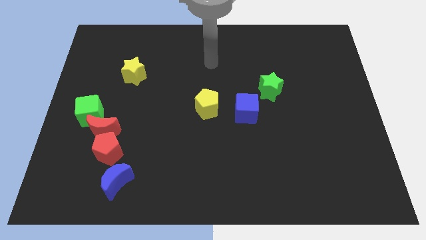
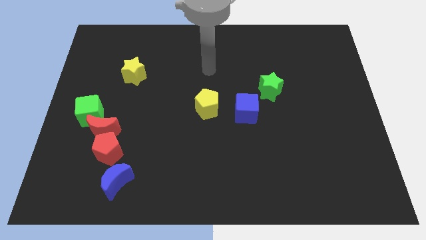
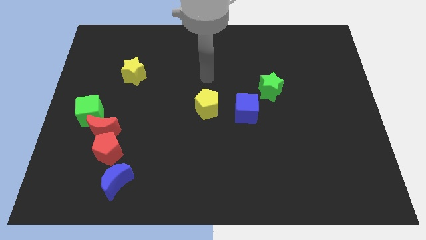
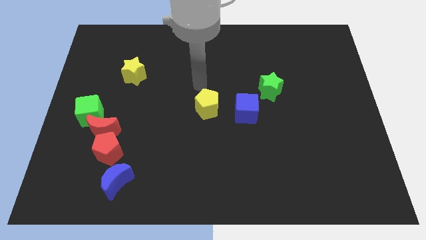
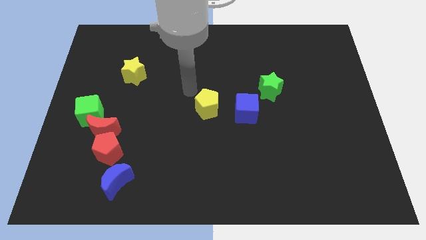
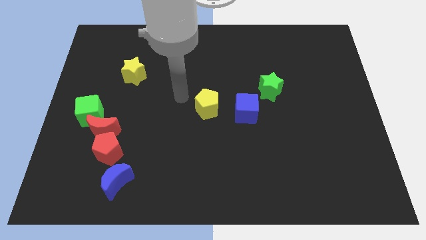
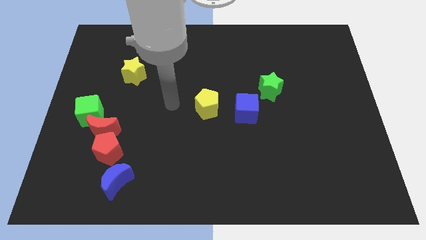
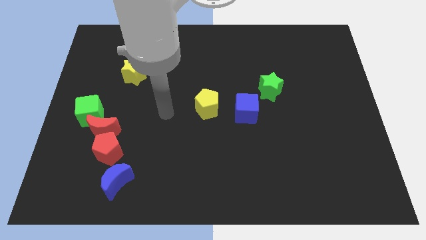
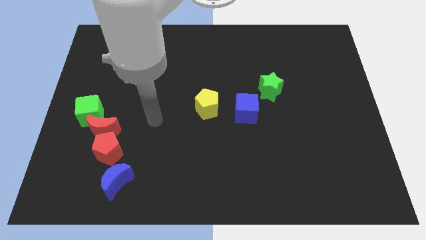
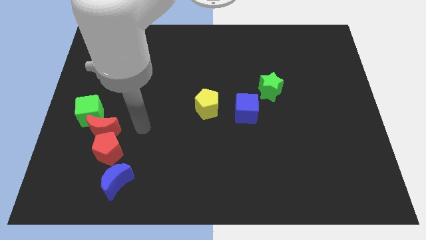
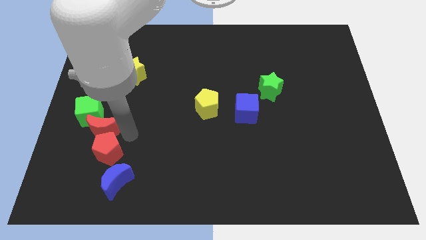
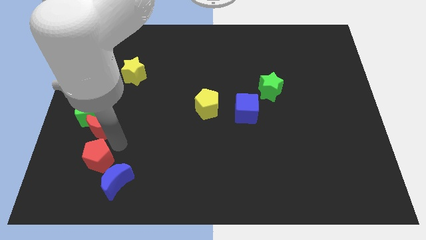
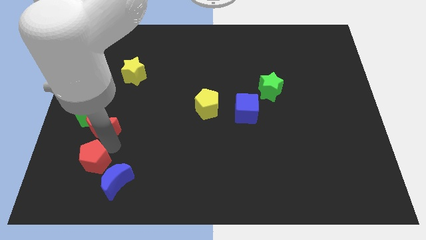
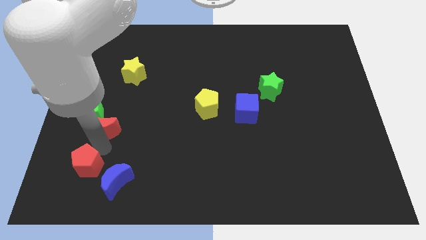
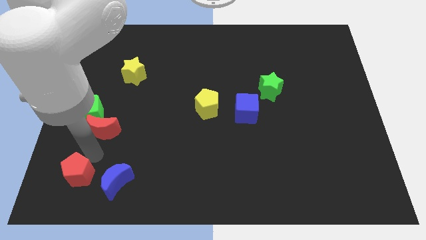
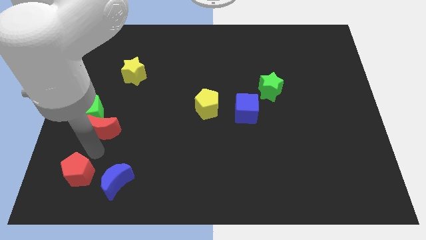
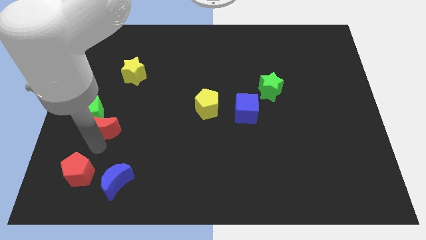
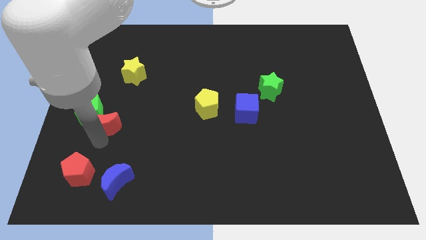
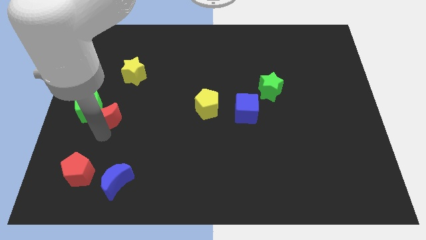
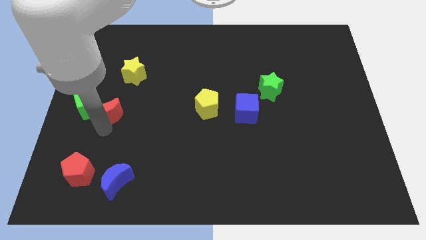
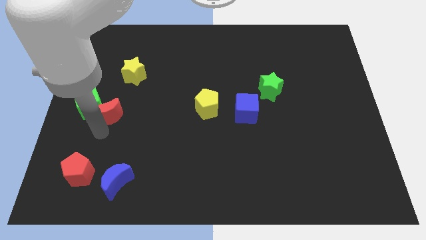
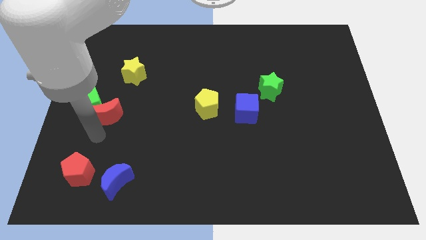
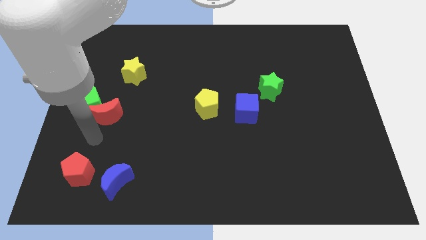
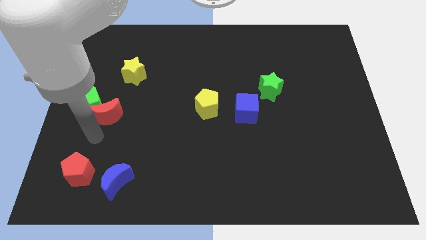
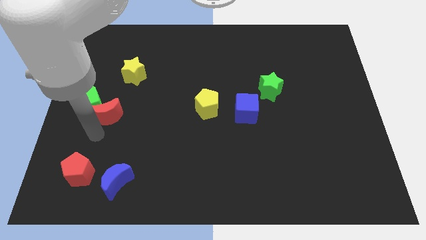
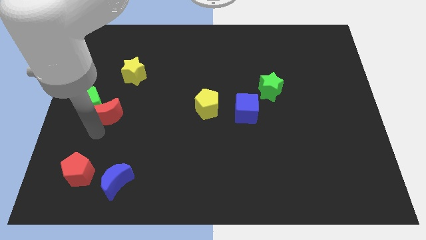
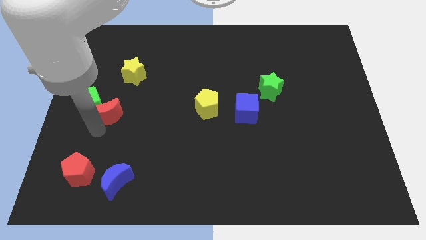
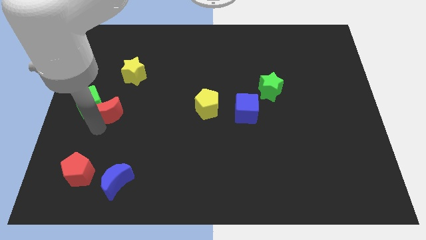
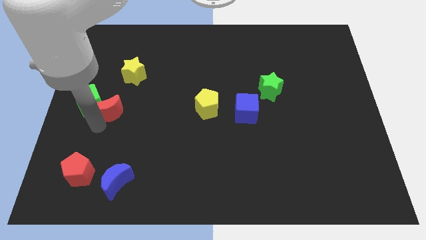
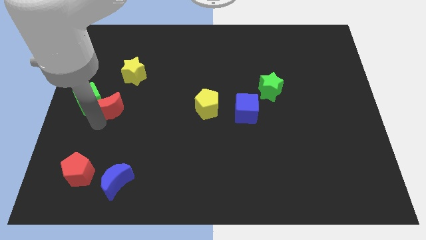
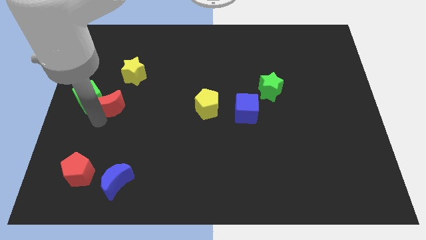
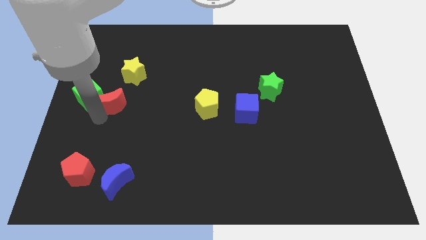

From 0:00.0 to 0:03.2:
slightly push the red moon upwards

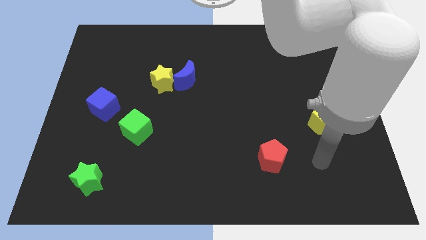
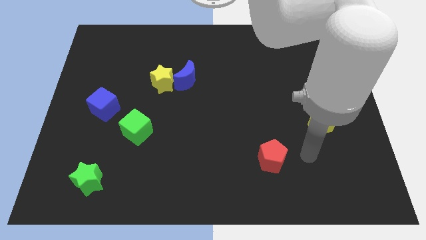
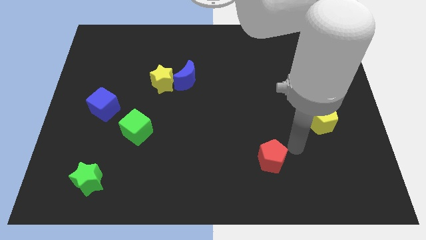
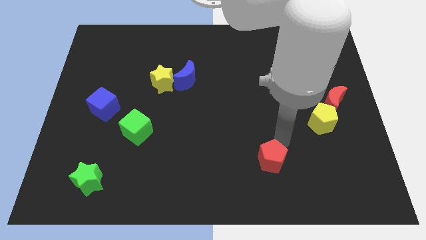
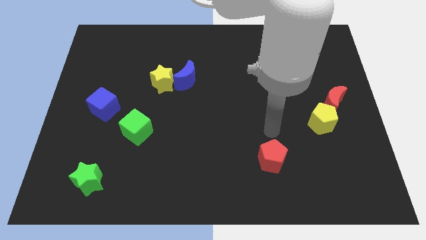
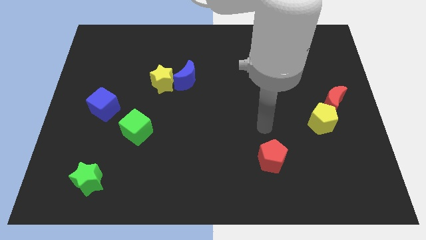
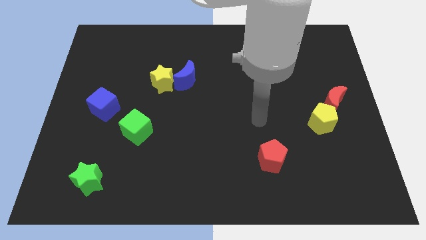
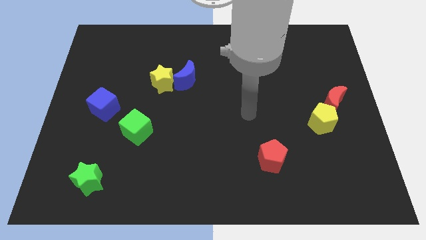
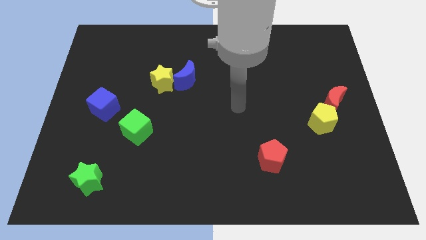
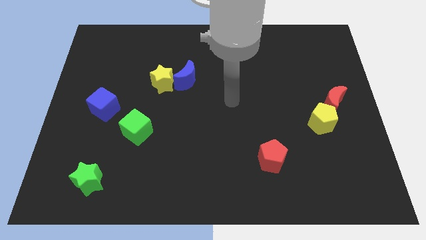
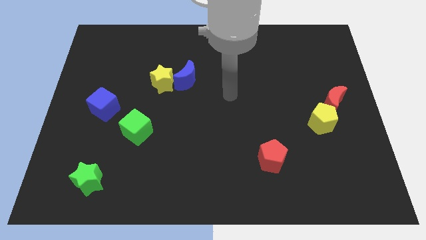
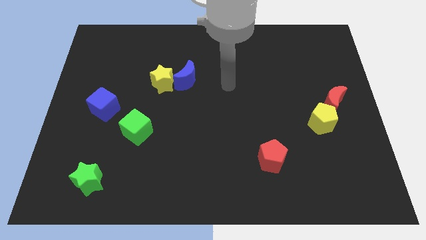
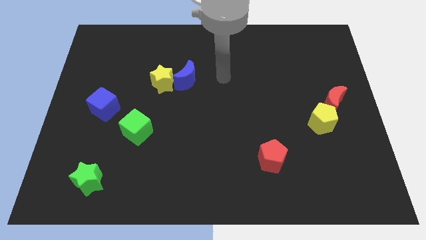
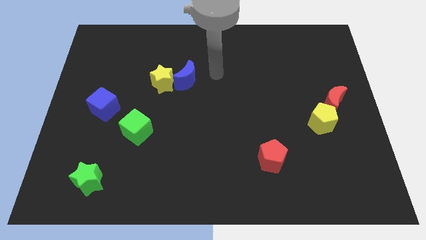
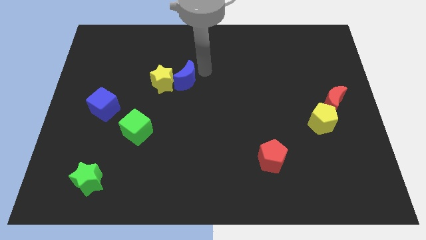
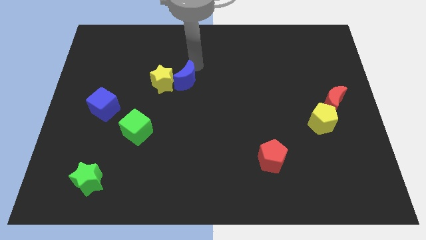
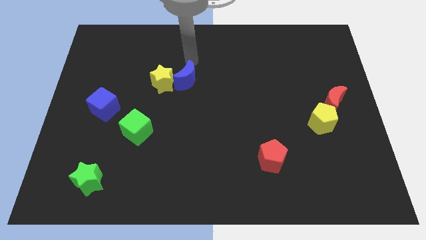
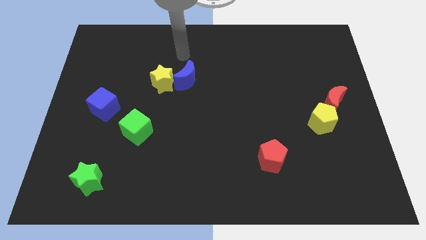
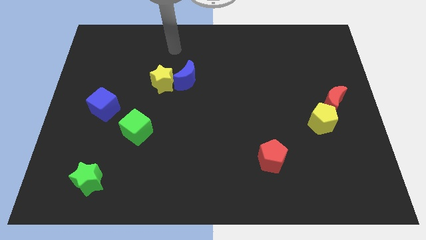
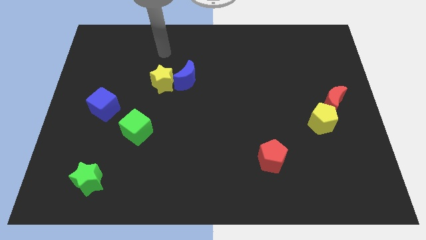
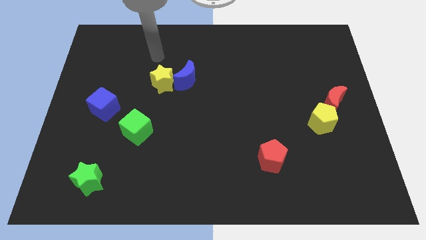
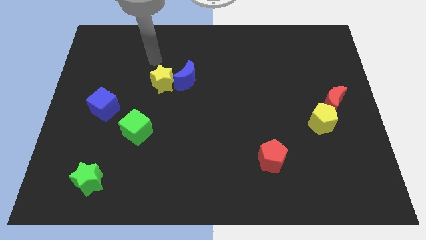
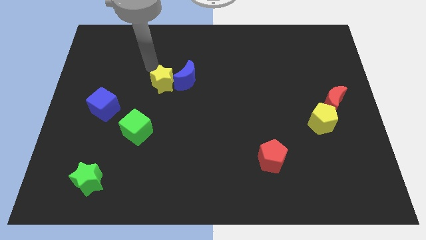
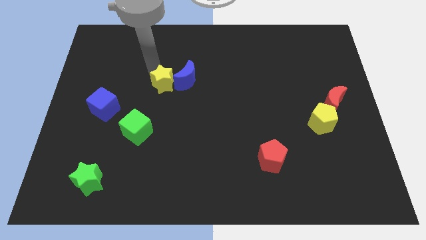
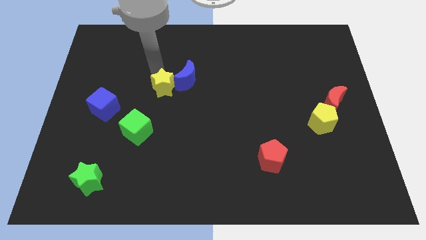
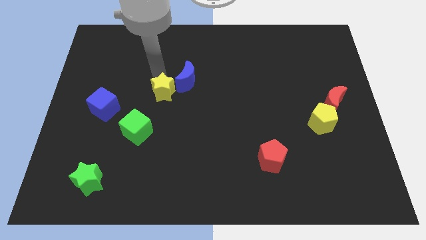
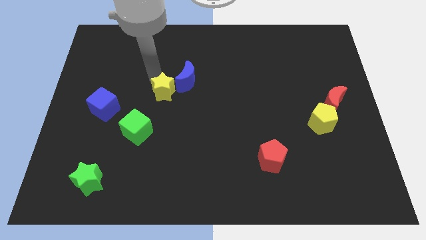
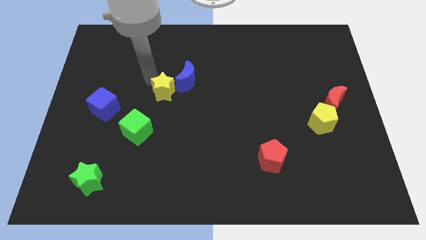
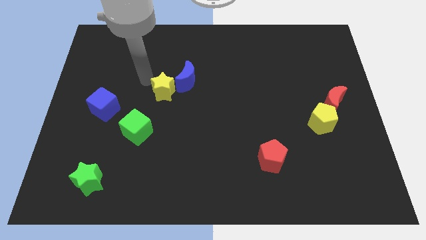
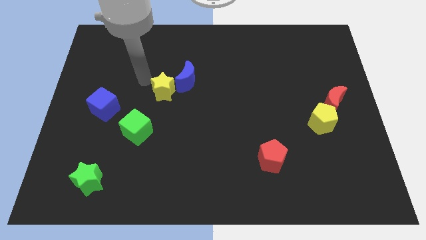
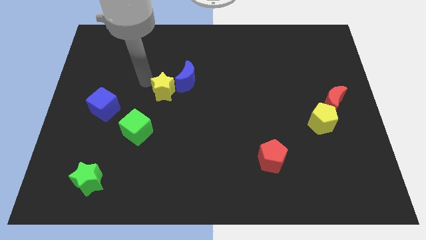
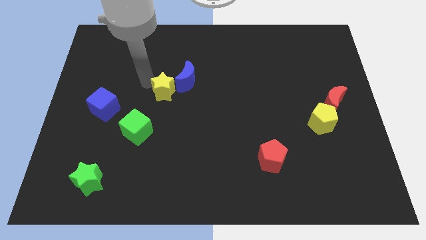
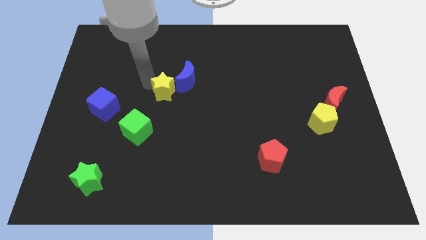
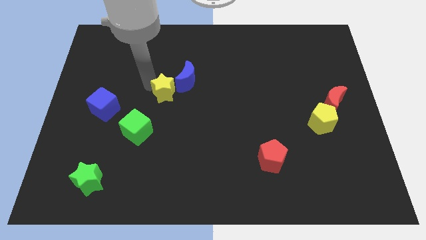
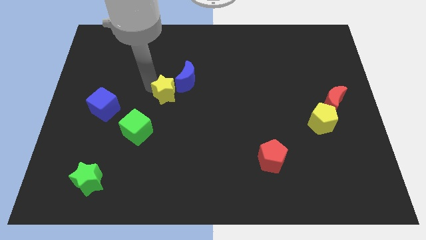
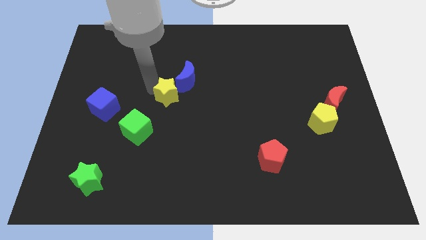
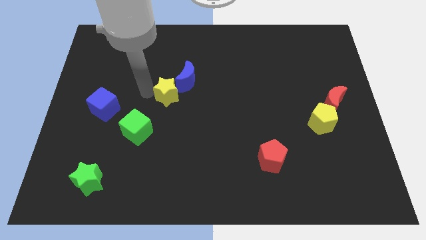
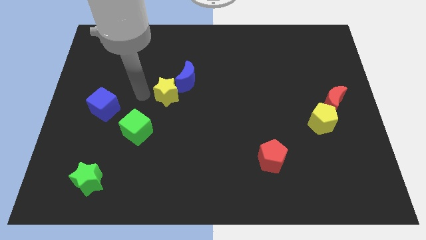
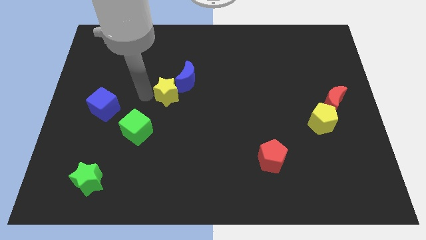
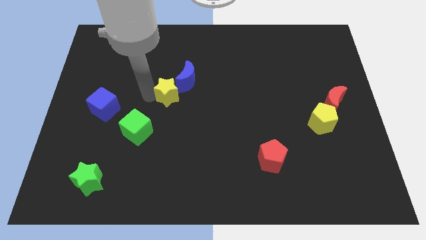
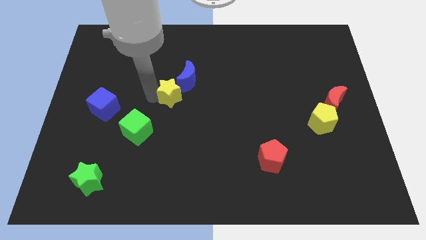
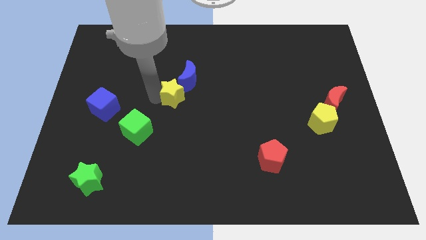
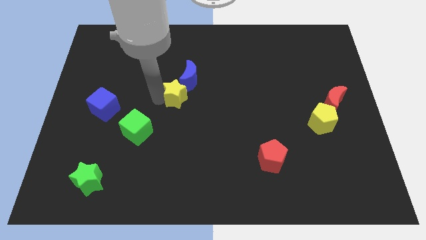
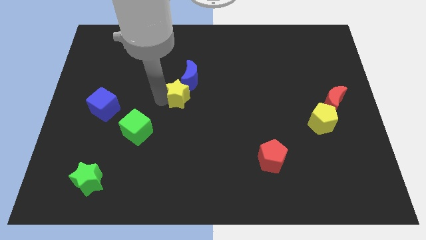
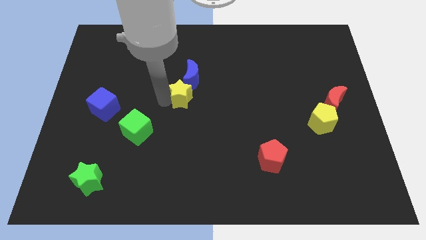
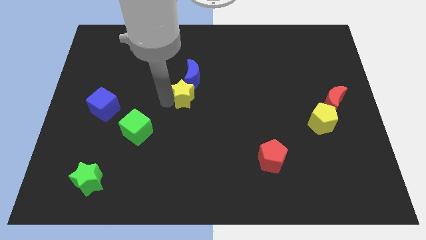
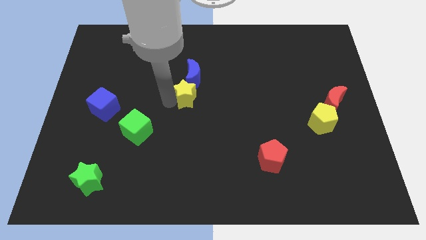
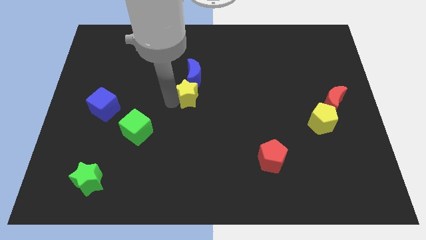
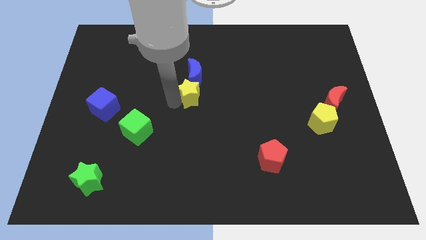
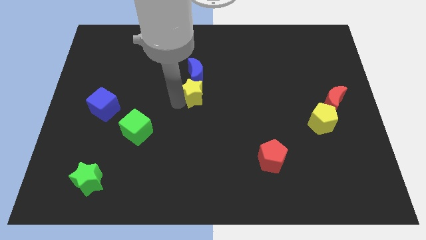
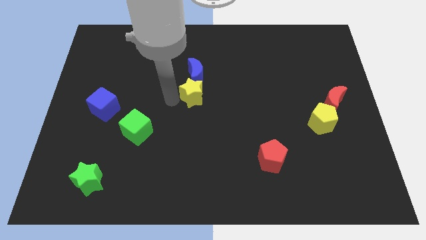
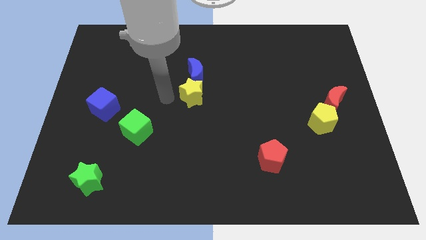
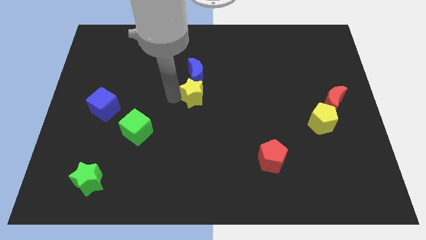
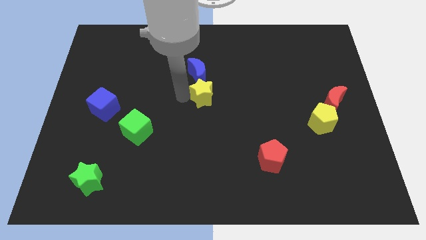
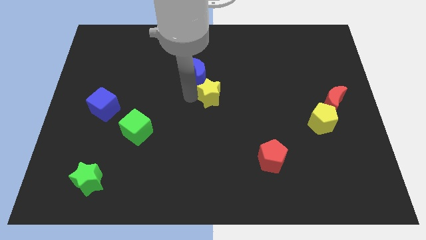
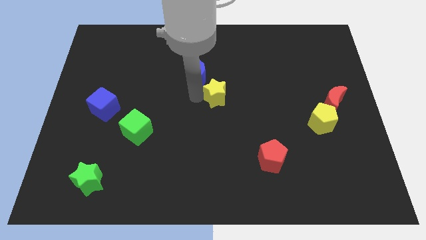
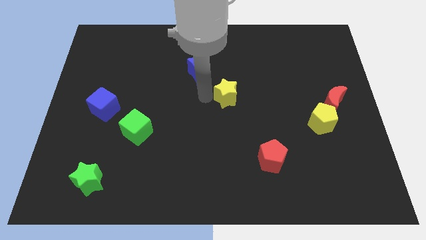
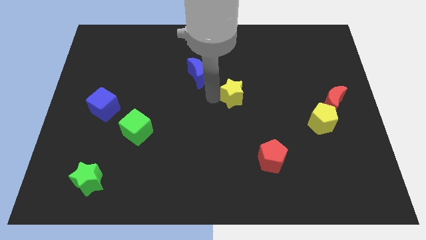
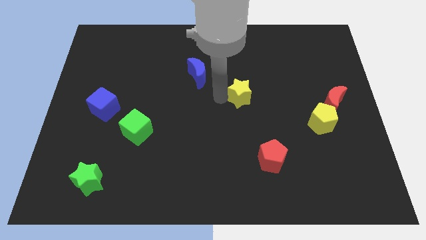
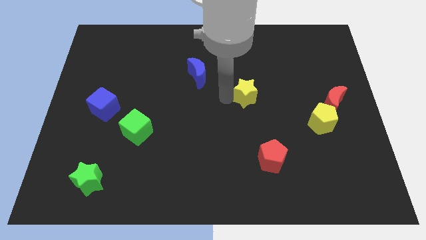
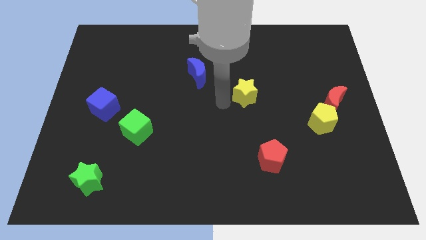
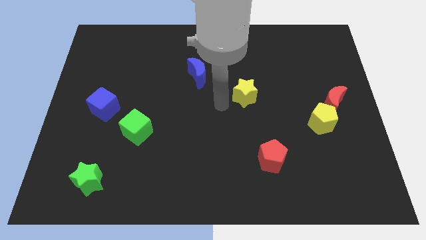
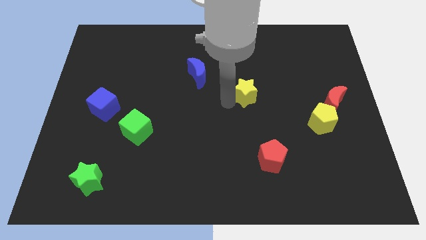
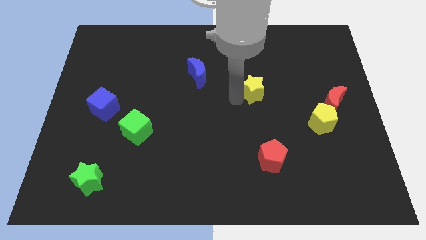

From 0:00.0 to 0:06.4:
push the yellow star to the right
